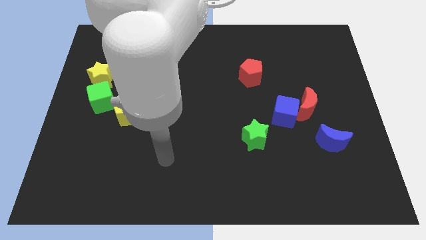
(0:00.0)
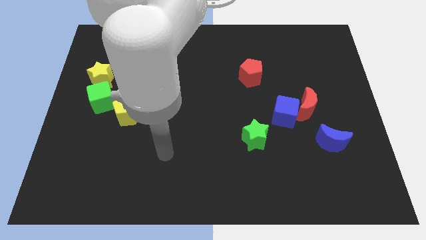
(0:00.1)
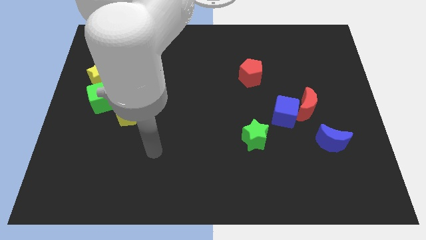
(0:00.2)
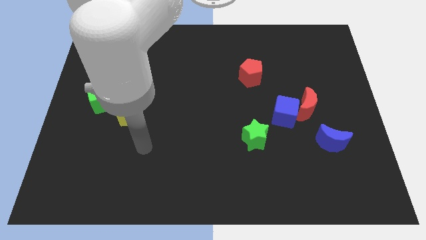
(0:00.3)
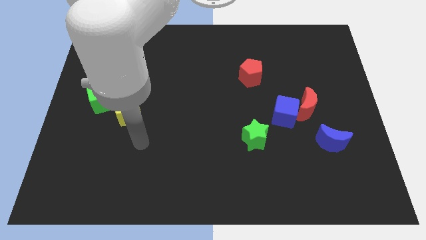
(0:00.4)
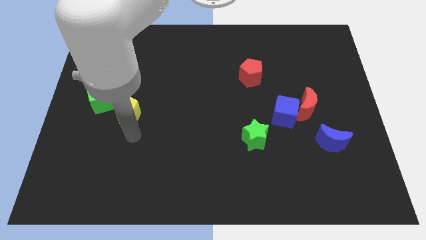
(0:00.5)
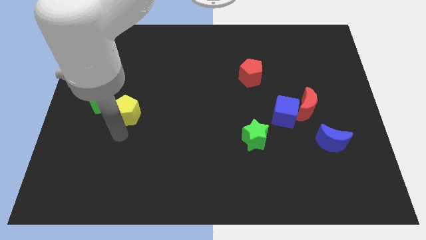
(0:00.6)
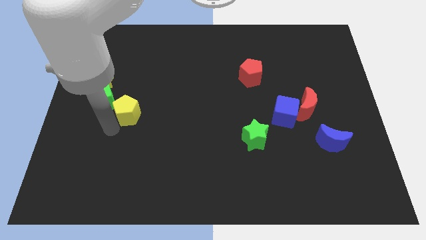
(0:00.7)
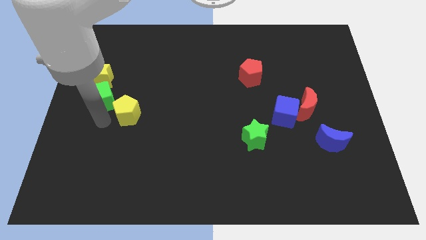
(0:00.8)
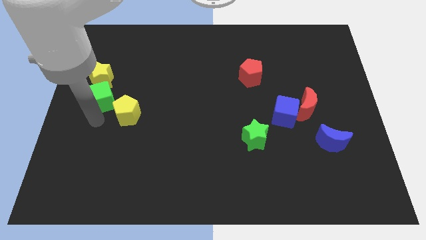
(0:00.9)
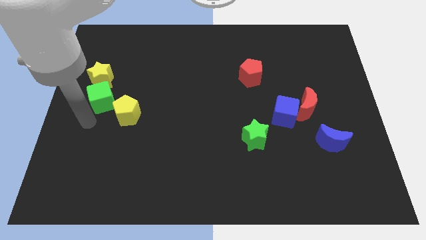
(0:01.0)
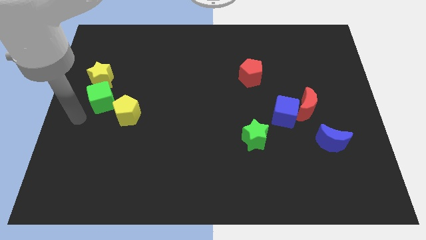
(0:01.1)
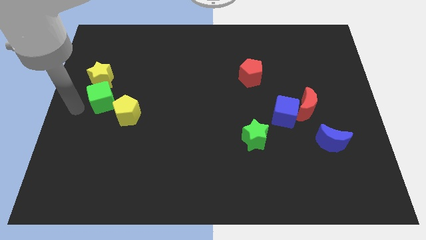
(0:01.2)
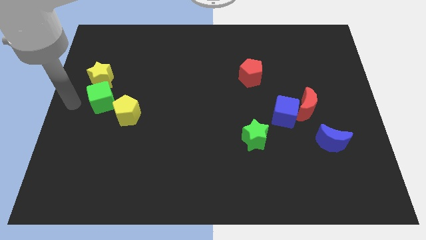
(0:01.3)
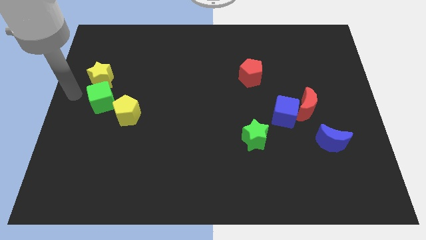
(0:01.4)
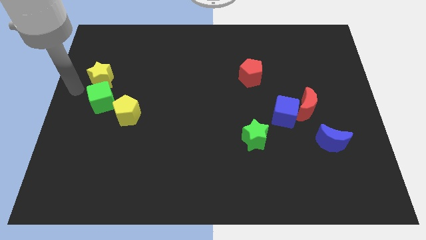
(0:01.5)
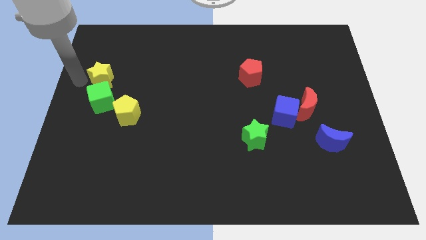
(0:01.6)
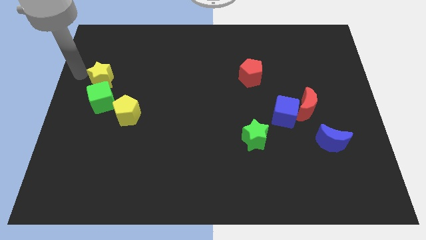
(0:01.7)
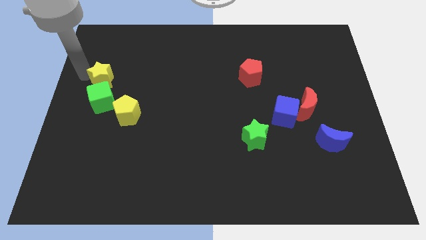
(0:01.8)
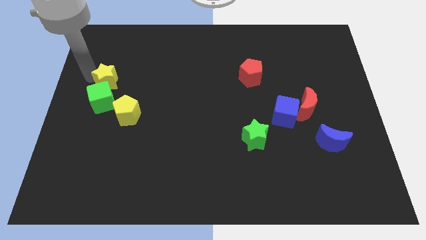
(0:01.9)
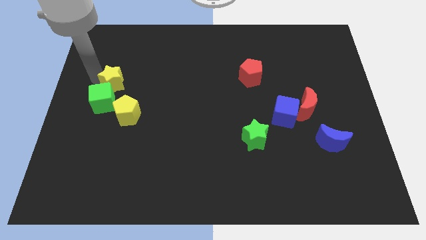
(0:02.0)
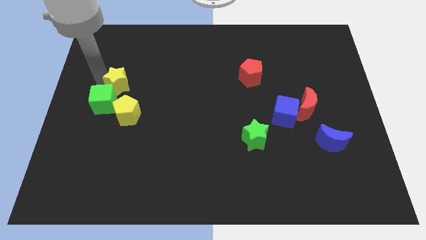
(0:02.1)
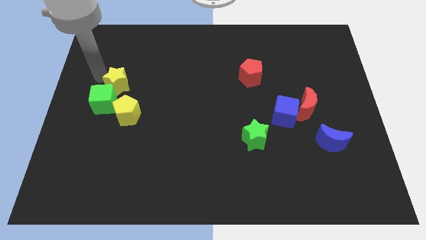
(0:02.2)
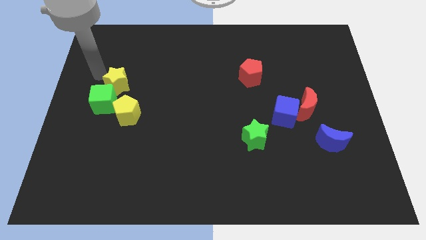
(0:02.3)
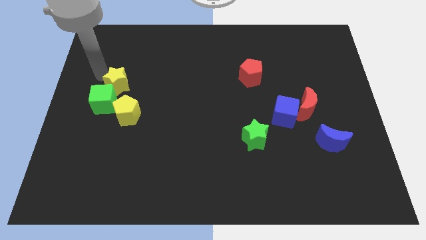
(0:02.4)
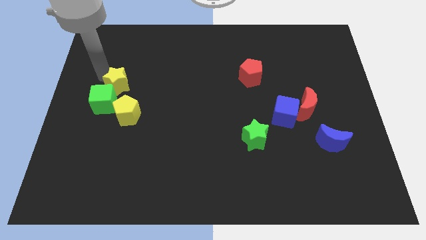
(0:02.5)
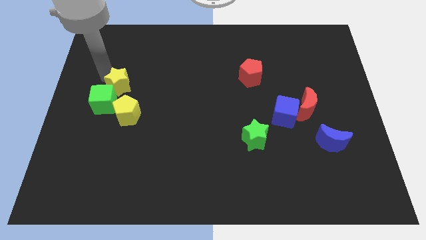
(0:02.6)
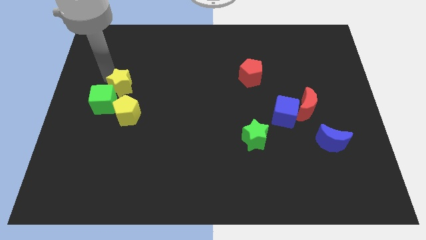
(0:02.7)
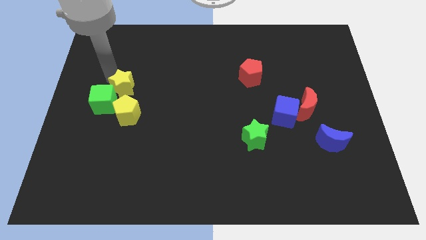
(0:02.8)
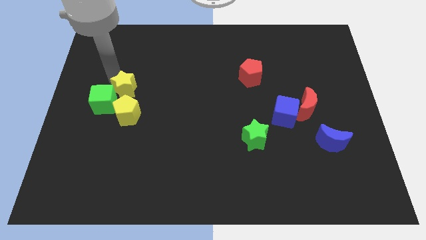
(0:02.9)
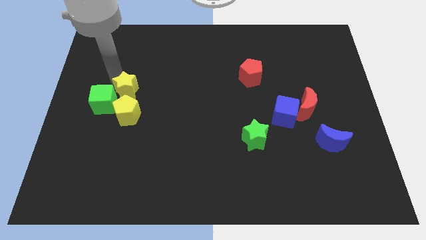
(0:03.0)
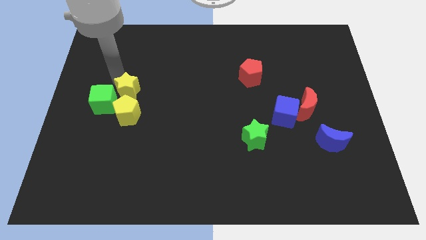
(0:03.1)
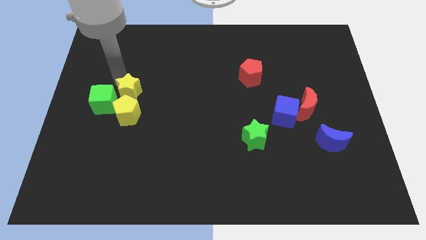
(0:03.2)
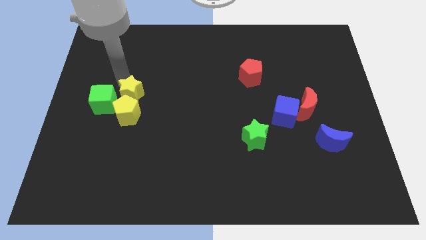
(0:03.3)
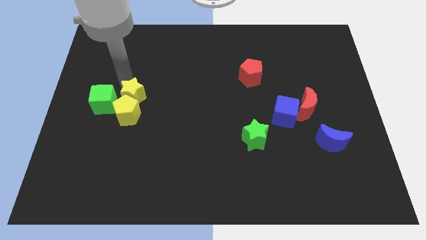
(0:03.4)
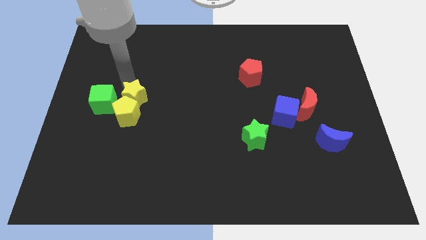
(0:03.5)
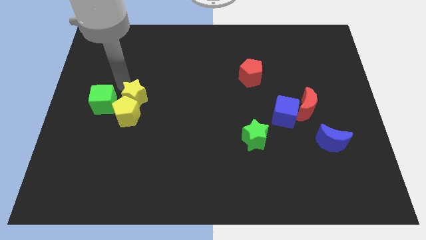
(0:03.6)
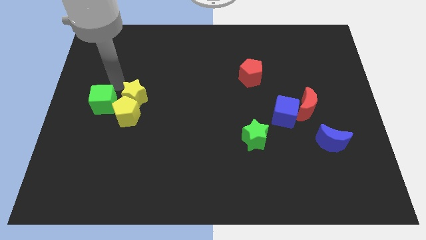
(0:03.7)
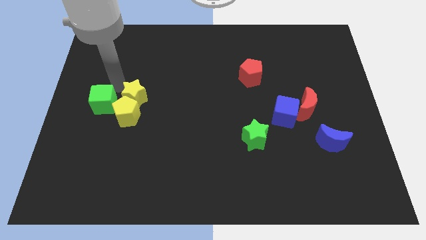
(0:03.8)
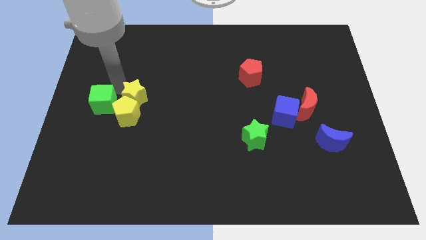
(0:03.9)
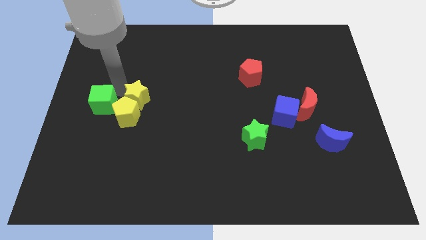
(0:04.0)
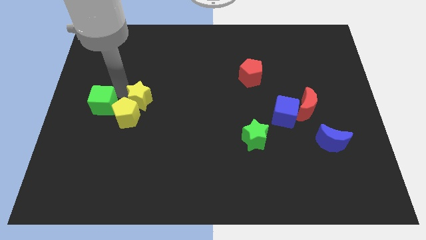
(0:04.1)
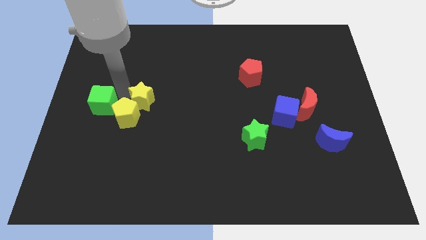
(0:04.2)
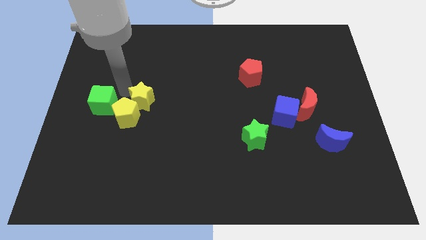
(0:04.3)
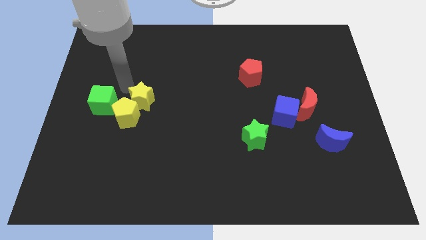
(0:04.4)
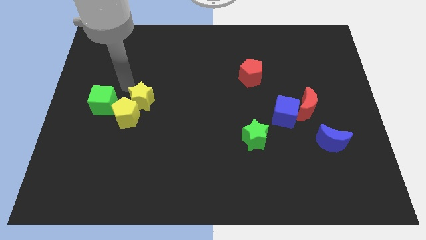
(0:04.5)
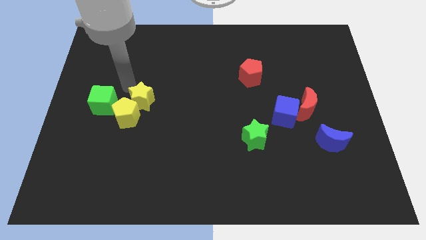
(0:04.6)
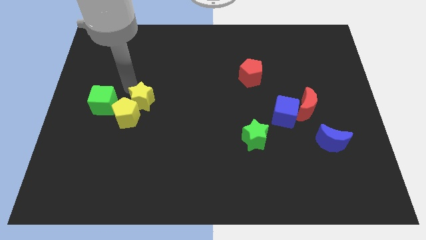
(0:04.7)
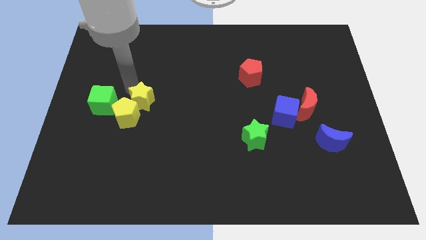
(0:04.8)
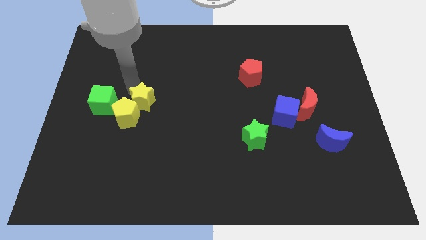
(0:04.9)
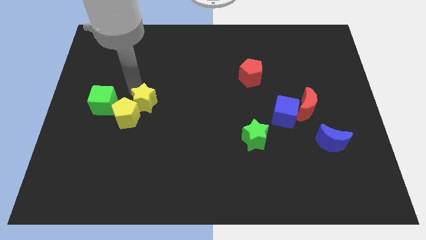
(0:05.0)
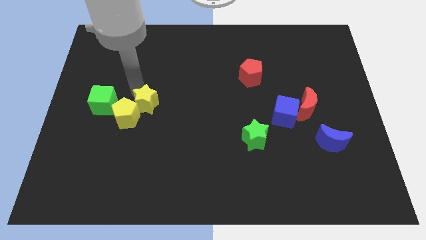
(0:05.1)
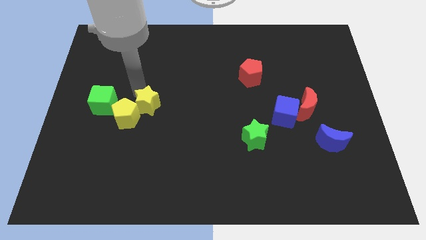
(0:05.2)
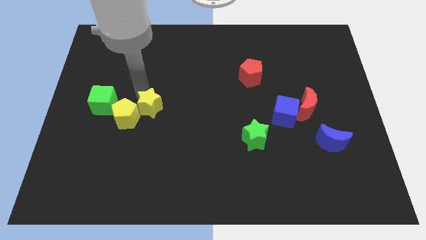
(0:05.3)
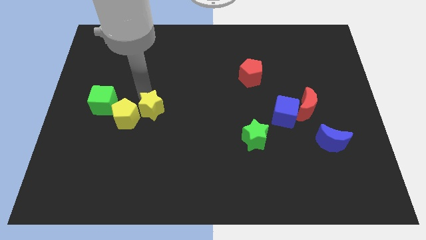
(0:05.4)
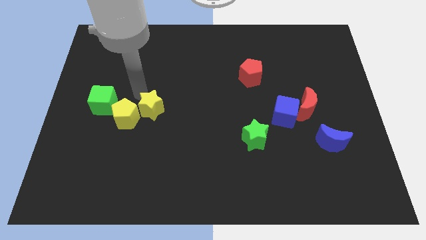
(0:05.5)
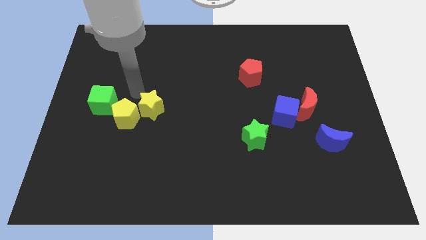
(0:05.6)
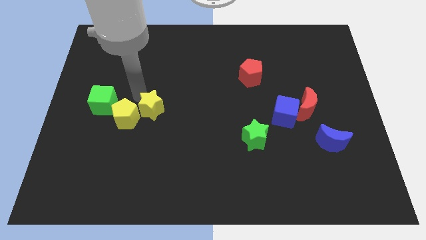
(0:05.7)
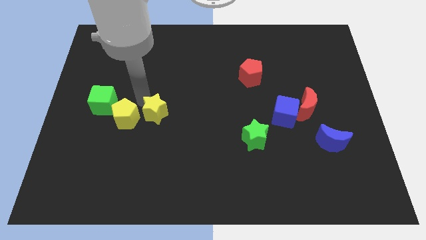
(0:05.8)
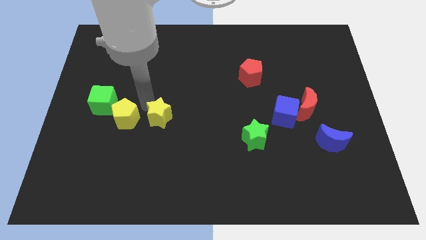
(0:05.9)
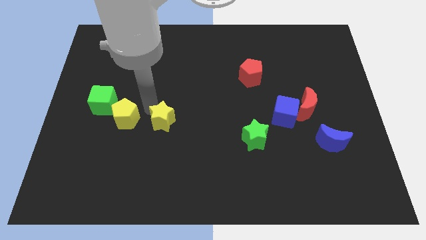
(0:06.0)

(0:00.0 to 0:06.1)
move the yellow star down and then to the right

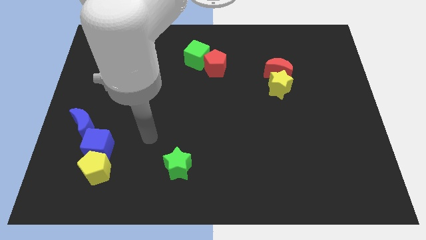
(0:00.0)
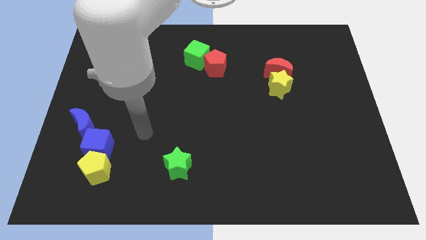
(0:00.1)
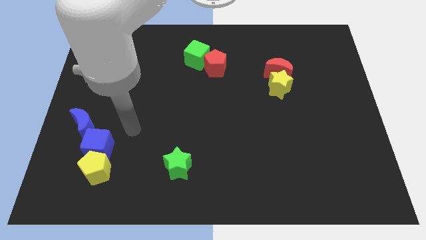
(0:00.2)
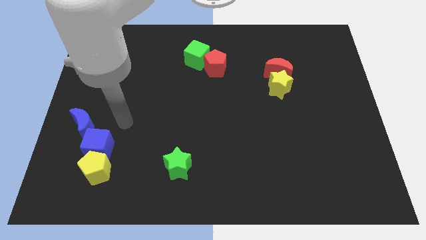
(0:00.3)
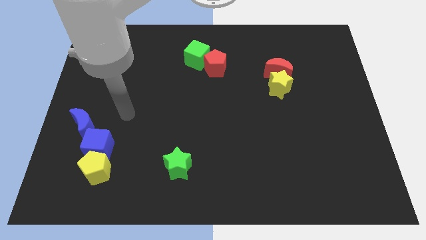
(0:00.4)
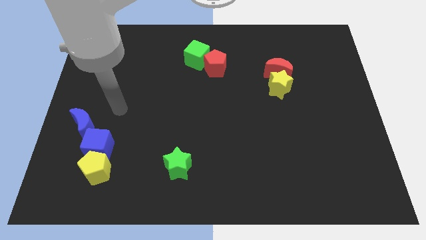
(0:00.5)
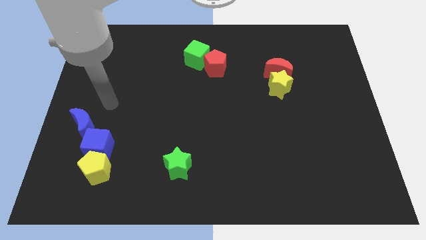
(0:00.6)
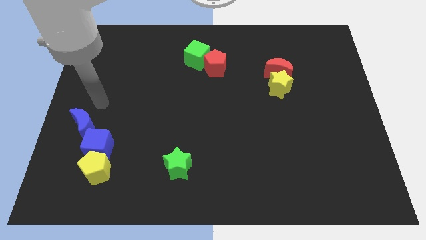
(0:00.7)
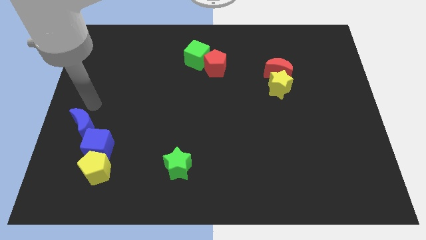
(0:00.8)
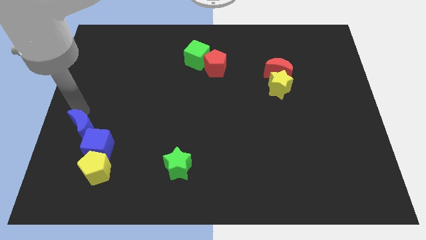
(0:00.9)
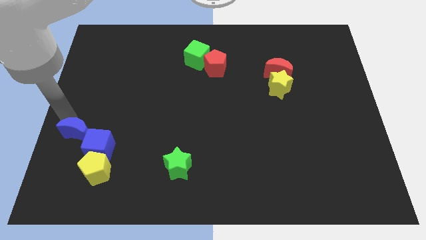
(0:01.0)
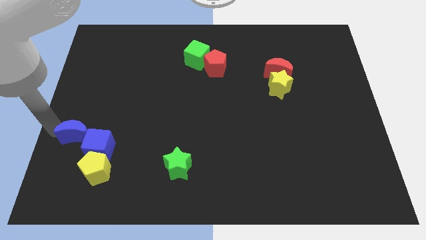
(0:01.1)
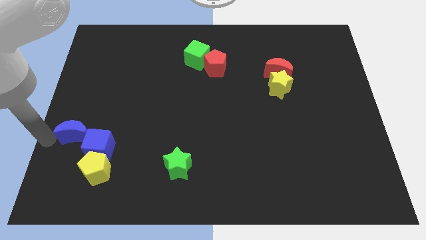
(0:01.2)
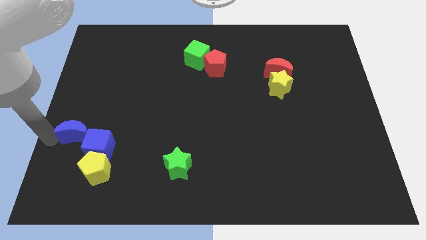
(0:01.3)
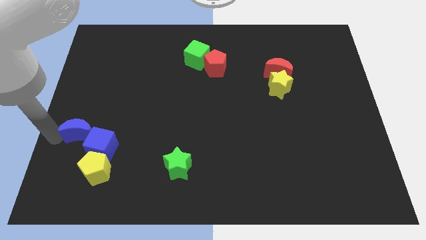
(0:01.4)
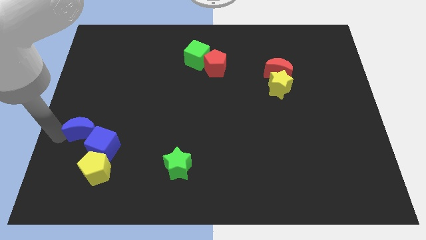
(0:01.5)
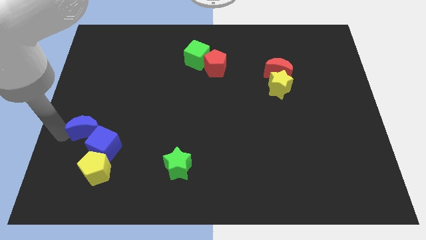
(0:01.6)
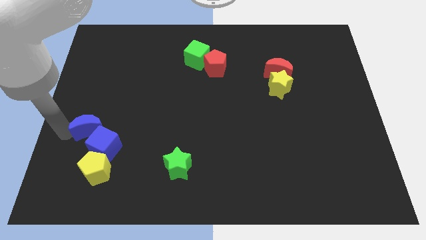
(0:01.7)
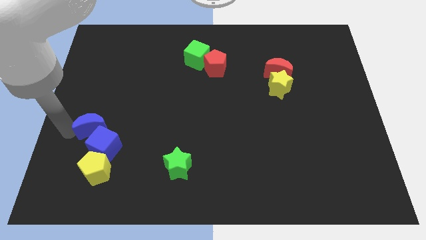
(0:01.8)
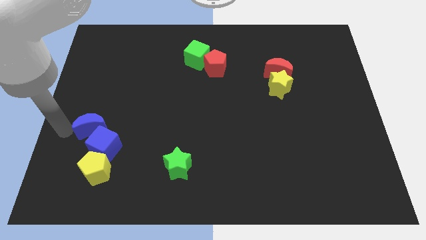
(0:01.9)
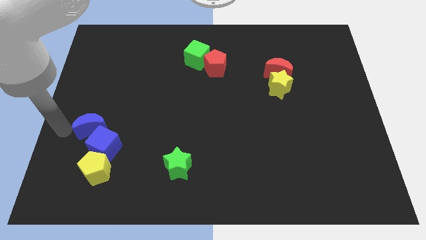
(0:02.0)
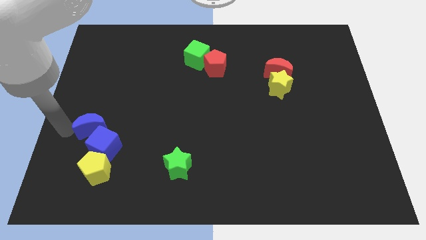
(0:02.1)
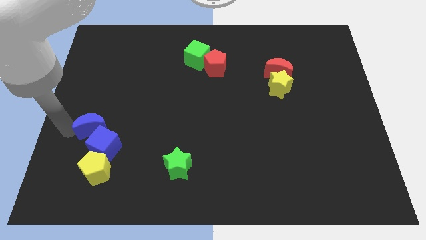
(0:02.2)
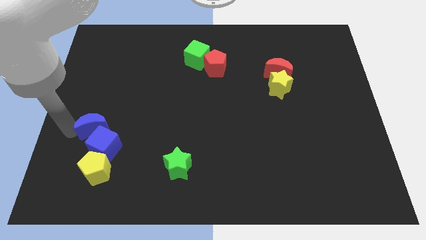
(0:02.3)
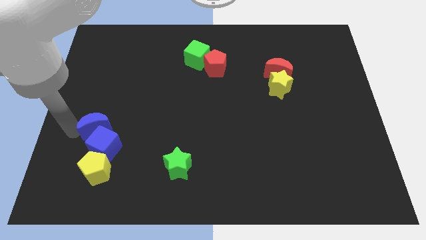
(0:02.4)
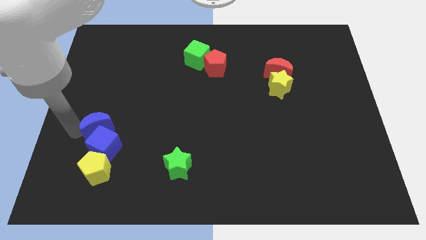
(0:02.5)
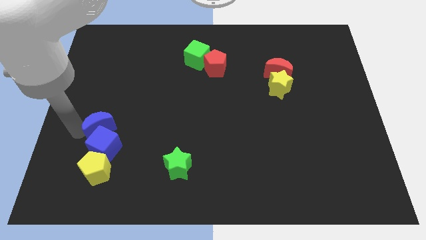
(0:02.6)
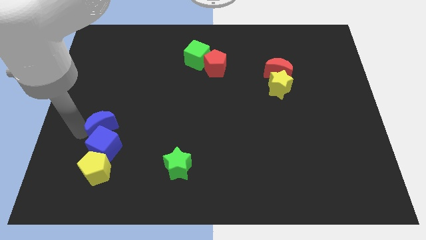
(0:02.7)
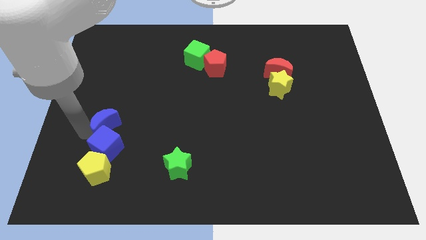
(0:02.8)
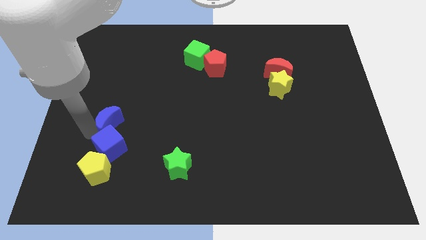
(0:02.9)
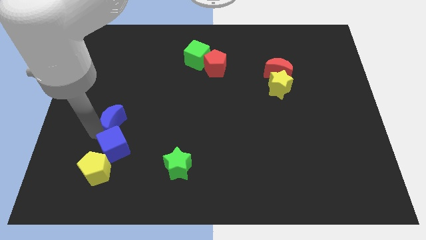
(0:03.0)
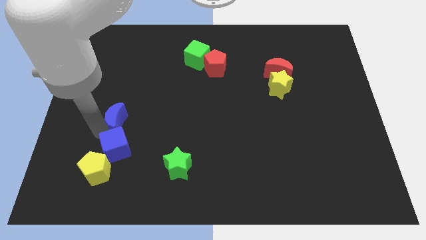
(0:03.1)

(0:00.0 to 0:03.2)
push the blue moon slightly to the right
